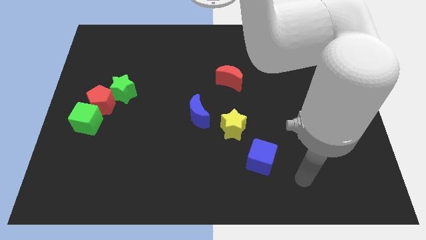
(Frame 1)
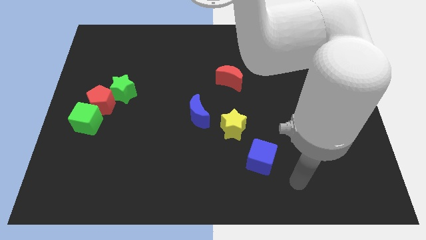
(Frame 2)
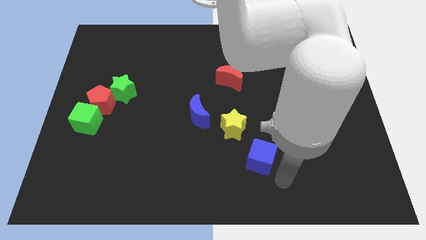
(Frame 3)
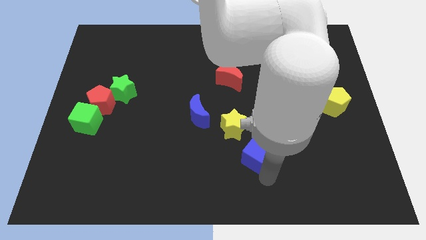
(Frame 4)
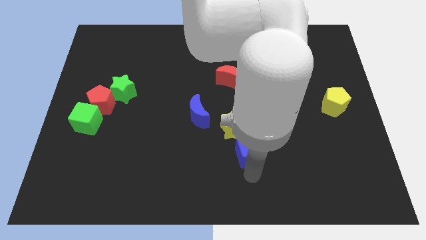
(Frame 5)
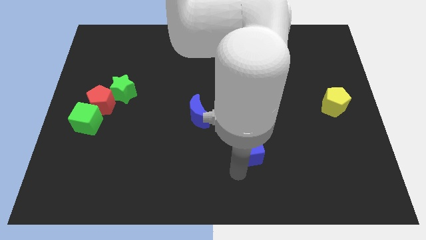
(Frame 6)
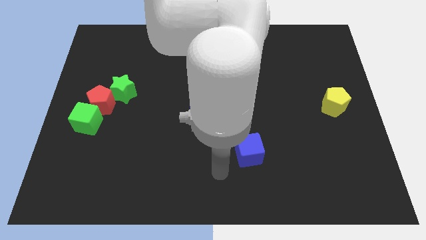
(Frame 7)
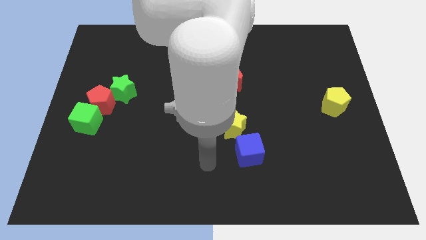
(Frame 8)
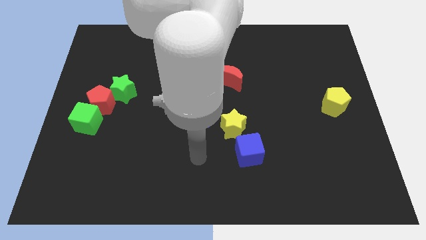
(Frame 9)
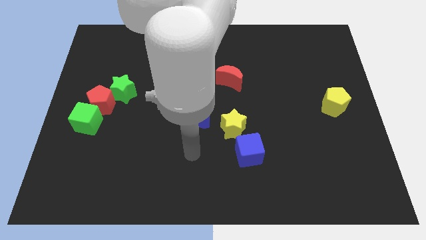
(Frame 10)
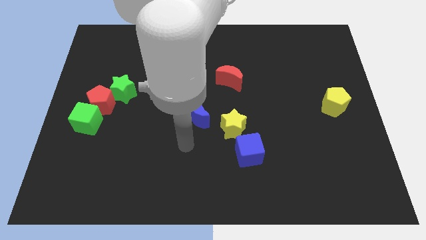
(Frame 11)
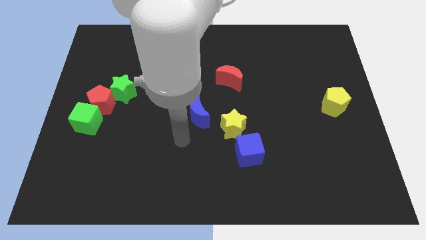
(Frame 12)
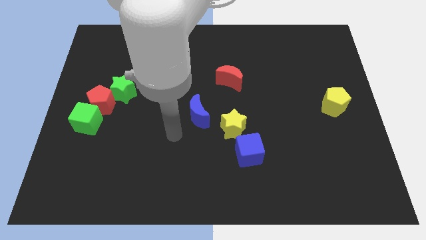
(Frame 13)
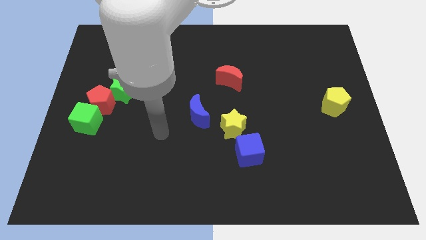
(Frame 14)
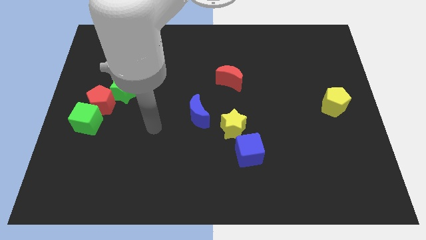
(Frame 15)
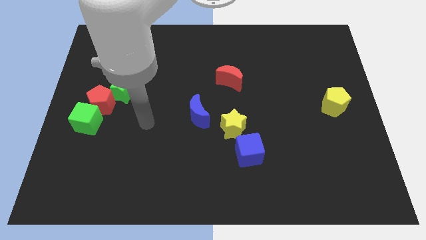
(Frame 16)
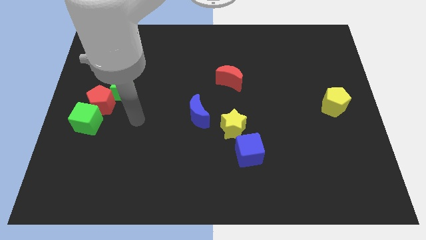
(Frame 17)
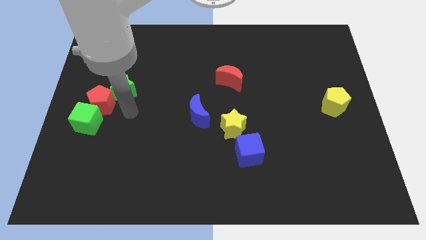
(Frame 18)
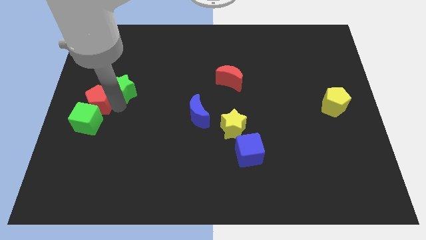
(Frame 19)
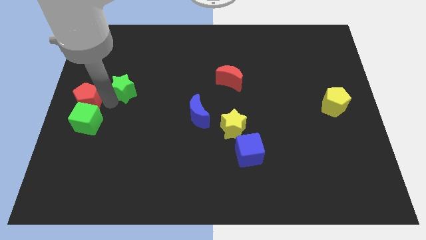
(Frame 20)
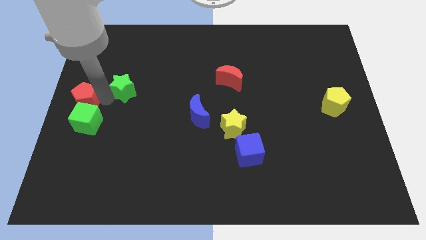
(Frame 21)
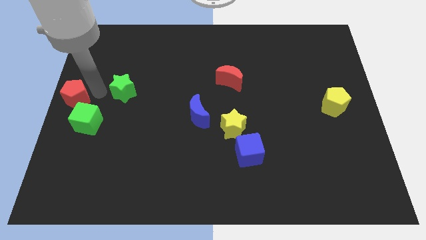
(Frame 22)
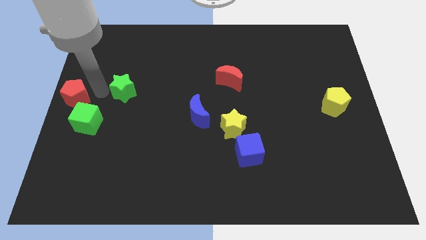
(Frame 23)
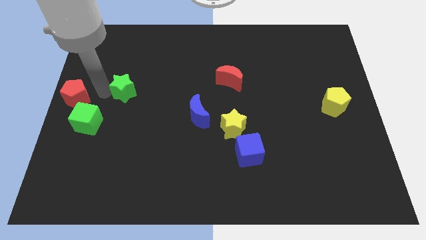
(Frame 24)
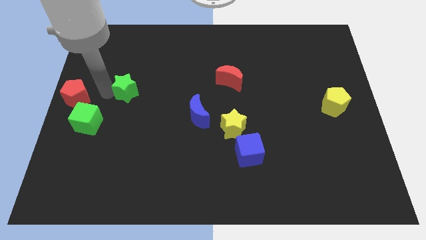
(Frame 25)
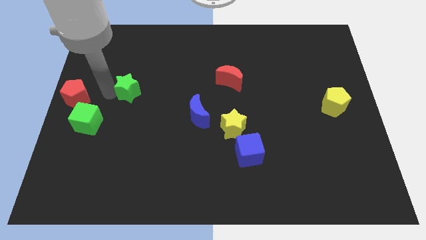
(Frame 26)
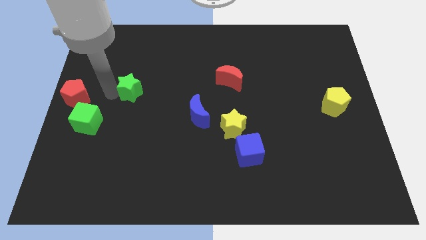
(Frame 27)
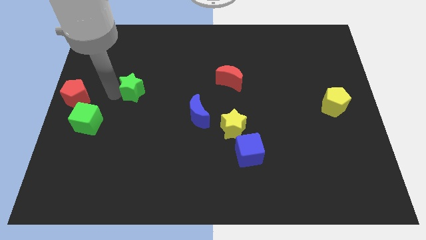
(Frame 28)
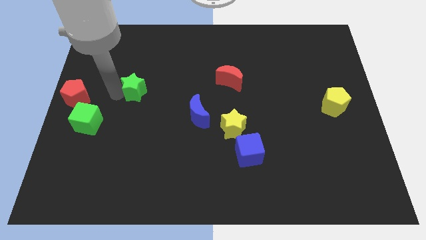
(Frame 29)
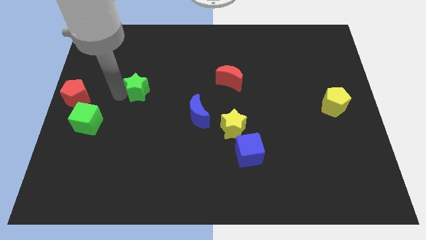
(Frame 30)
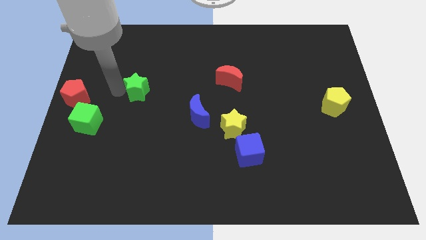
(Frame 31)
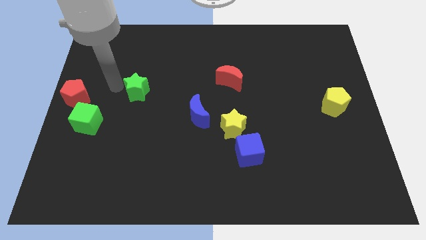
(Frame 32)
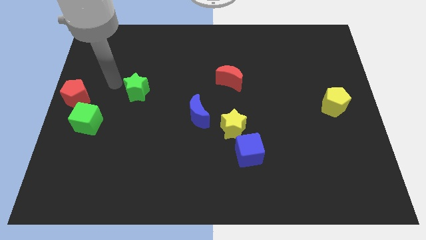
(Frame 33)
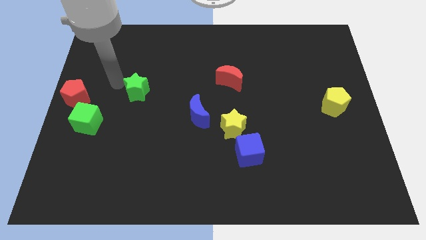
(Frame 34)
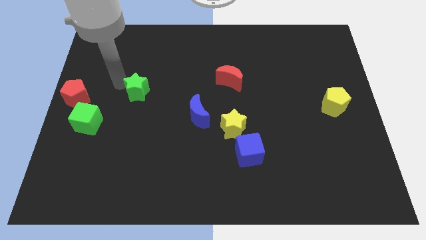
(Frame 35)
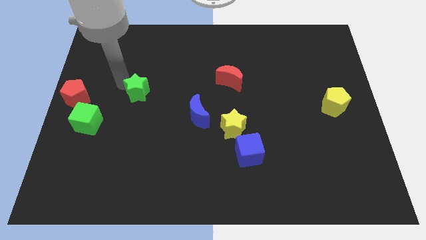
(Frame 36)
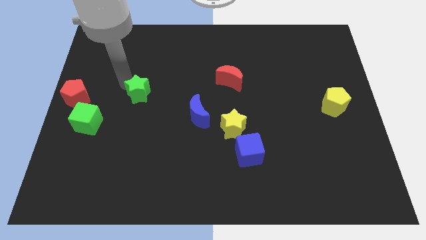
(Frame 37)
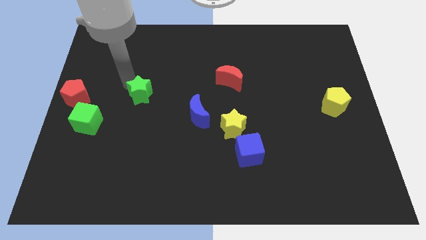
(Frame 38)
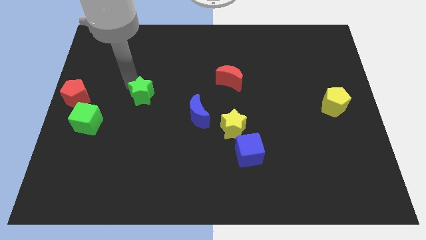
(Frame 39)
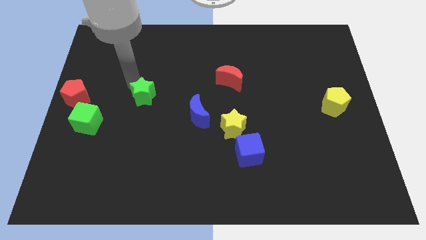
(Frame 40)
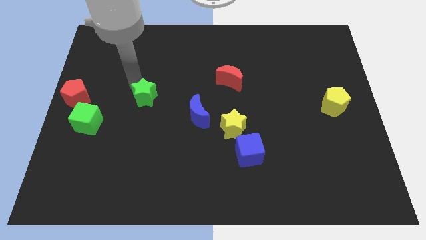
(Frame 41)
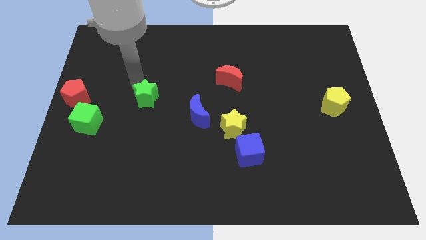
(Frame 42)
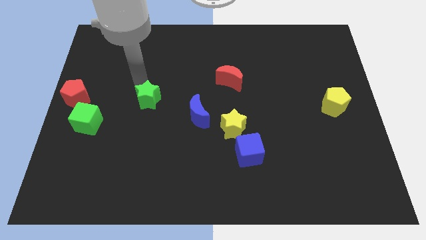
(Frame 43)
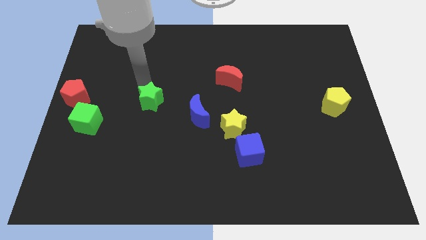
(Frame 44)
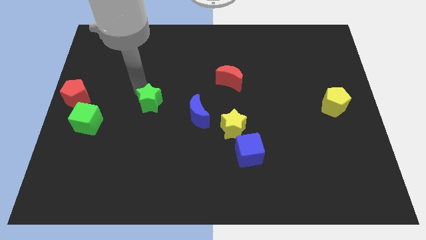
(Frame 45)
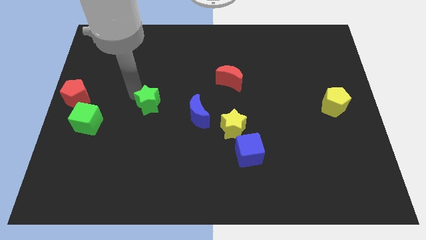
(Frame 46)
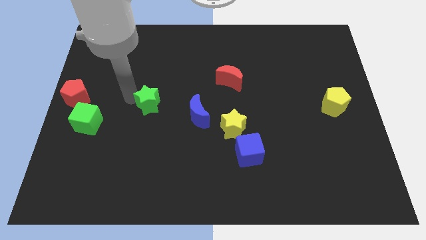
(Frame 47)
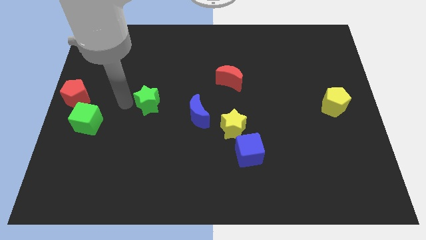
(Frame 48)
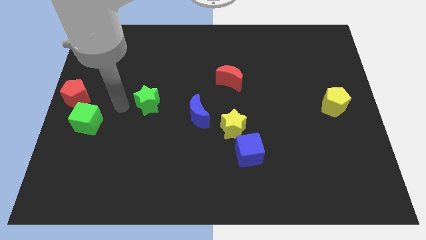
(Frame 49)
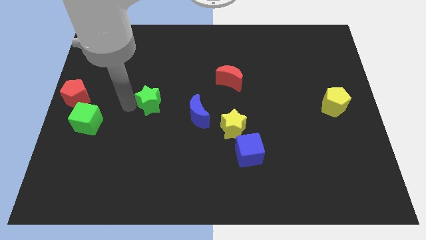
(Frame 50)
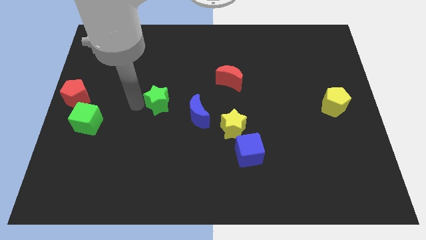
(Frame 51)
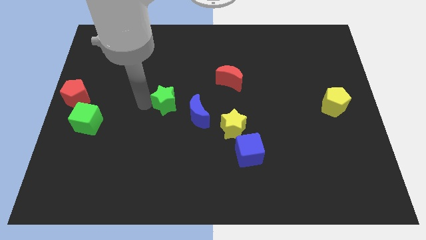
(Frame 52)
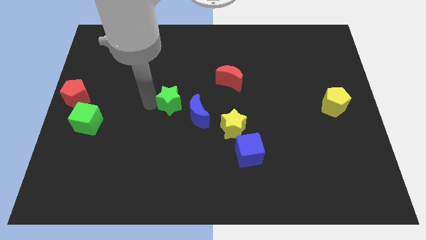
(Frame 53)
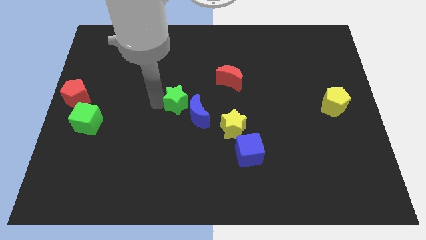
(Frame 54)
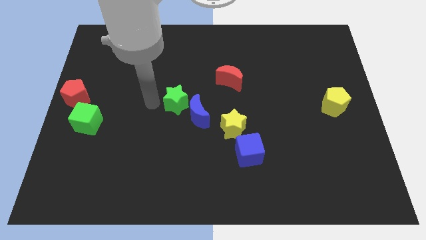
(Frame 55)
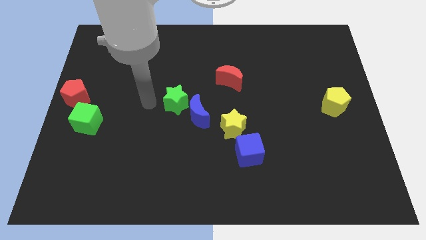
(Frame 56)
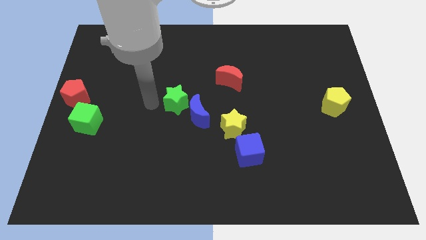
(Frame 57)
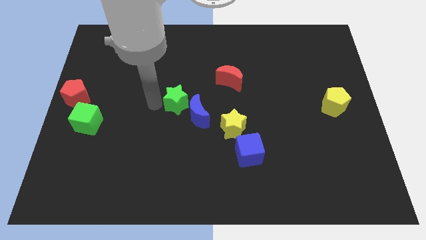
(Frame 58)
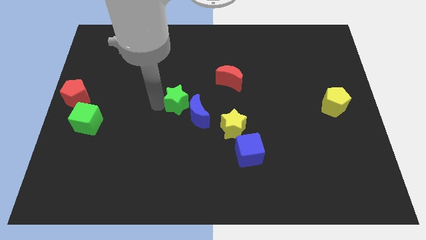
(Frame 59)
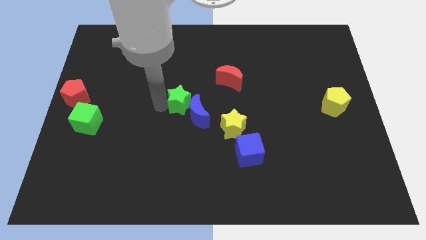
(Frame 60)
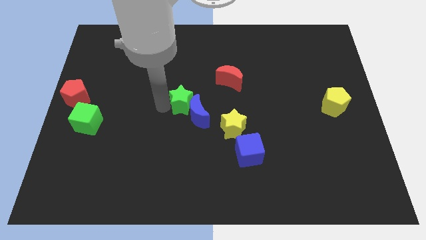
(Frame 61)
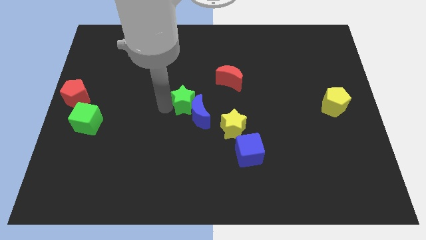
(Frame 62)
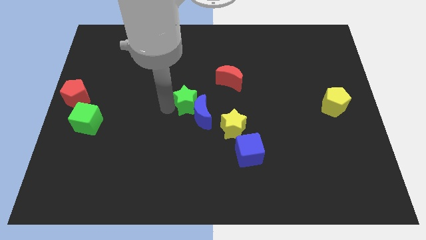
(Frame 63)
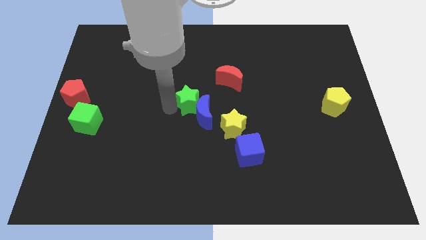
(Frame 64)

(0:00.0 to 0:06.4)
slide the green star diagonally up and to the left of the yellow star

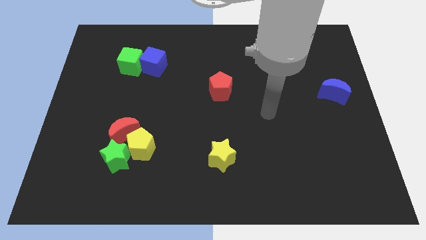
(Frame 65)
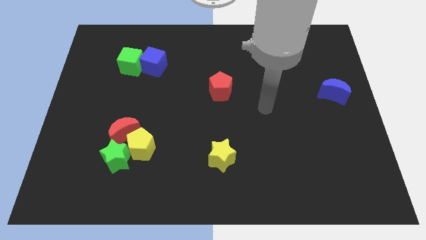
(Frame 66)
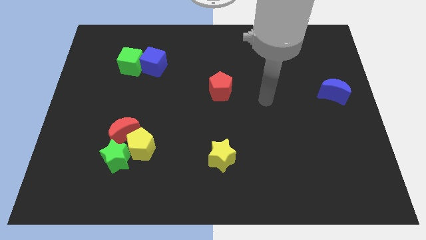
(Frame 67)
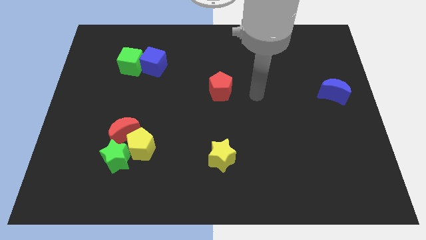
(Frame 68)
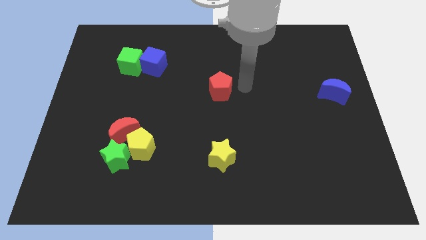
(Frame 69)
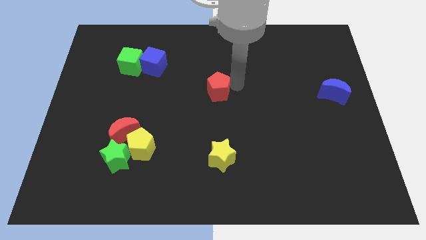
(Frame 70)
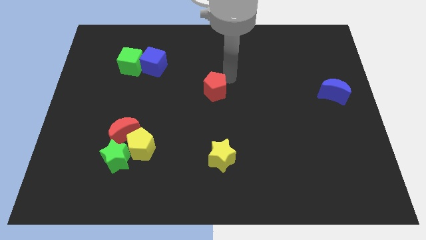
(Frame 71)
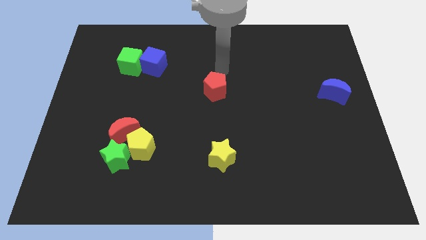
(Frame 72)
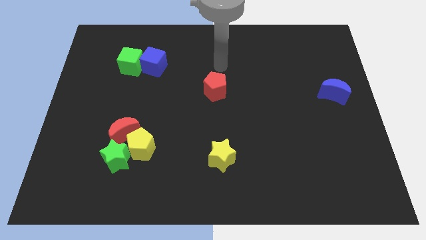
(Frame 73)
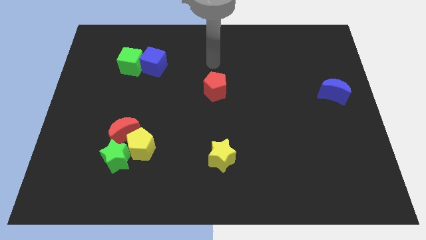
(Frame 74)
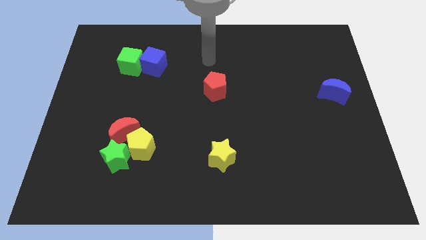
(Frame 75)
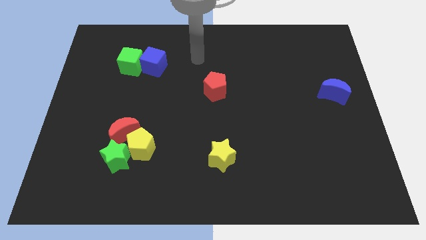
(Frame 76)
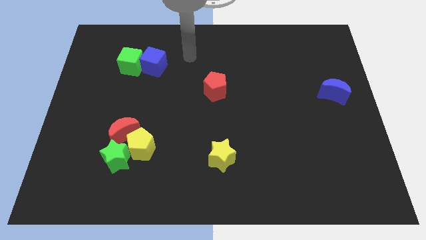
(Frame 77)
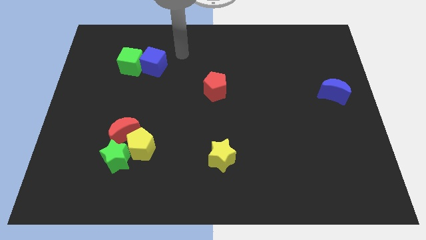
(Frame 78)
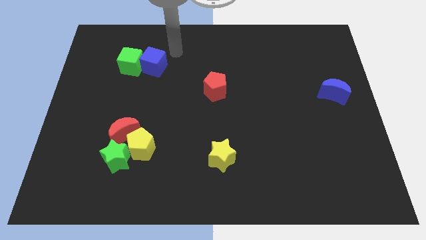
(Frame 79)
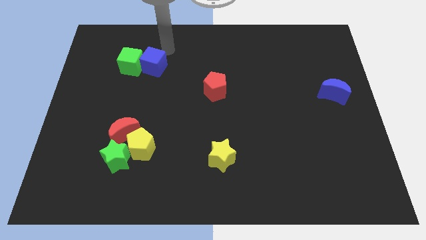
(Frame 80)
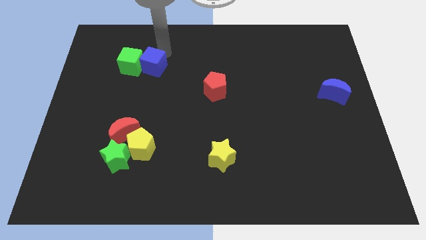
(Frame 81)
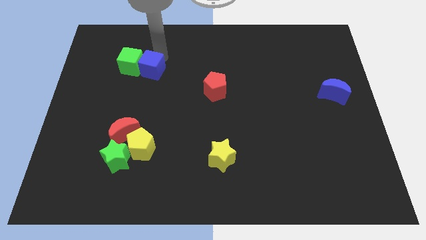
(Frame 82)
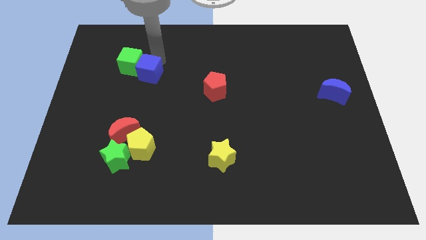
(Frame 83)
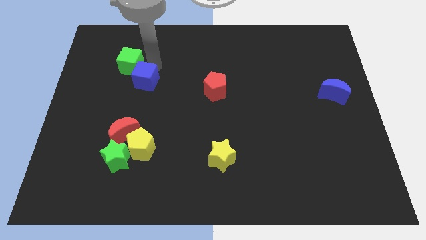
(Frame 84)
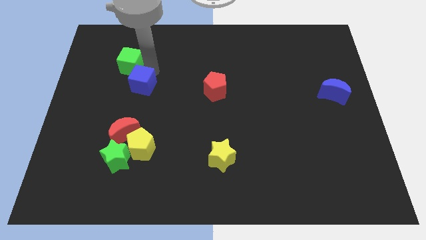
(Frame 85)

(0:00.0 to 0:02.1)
move the blue cube above the red moon
